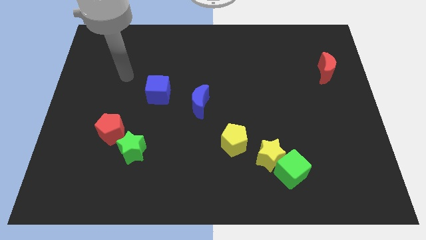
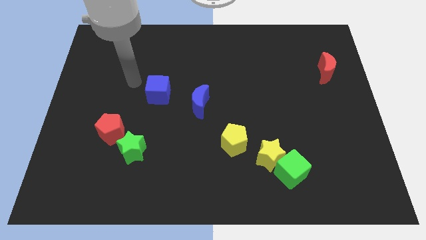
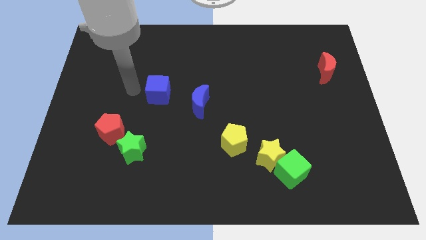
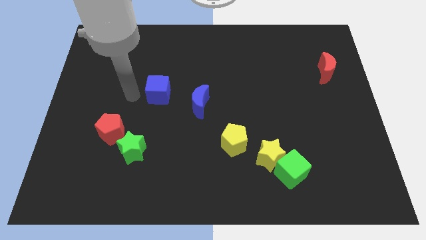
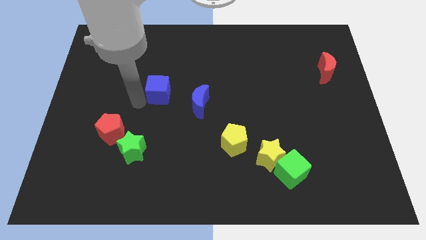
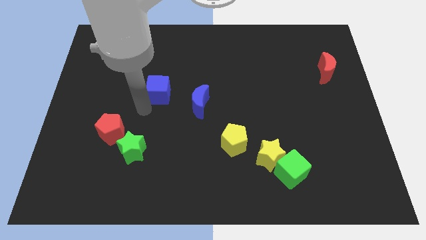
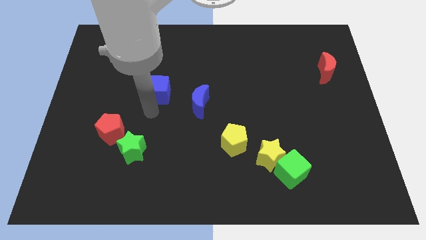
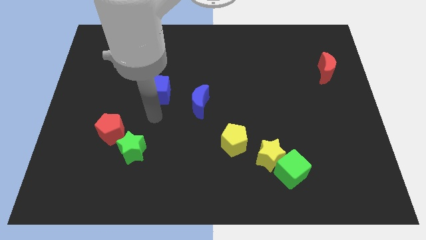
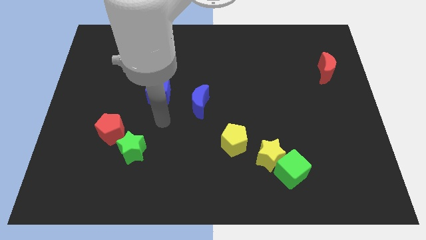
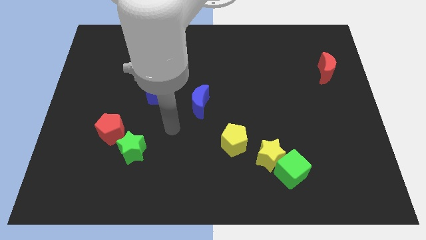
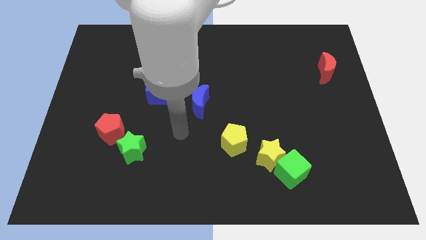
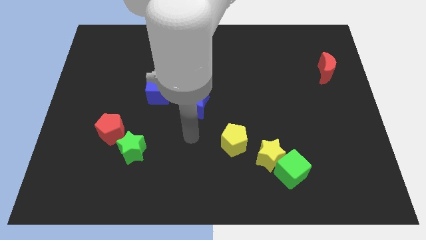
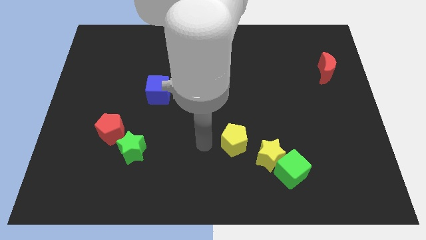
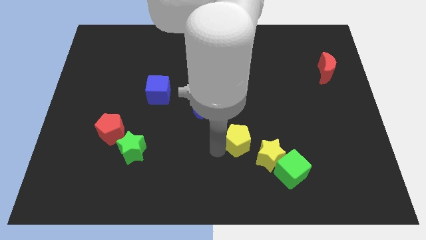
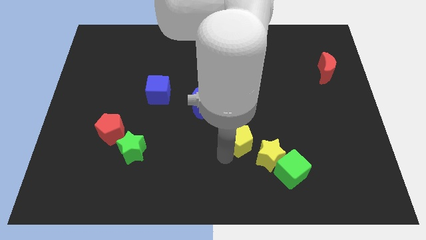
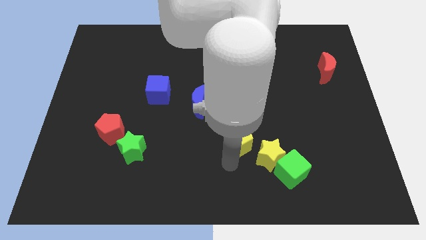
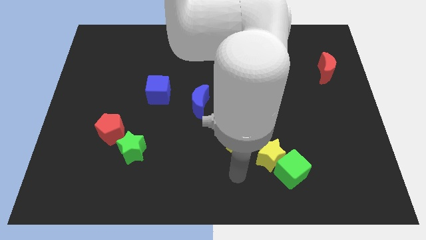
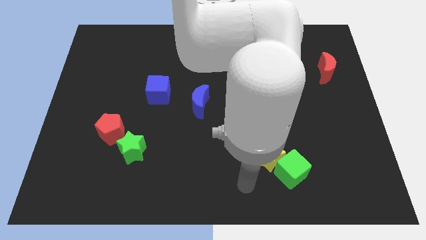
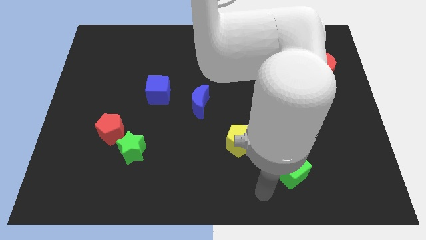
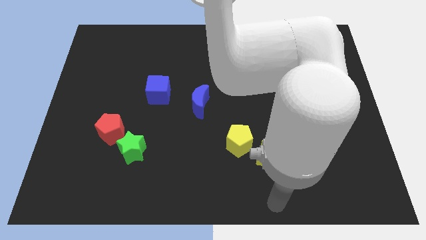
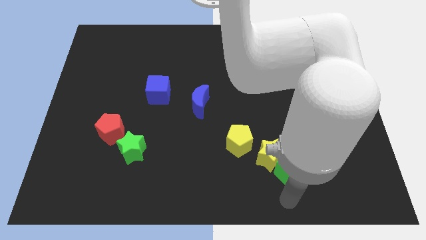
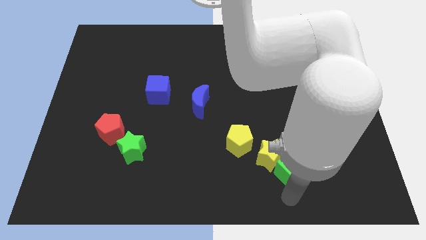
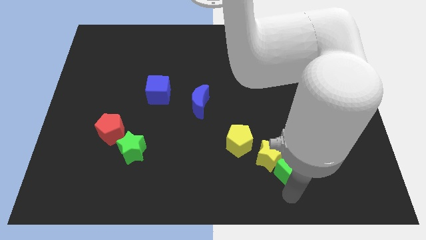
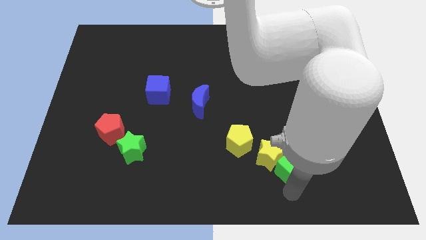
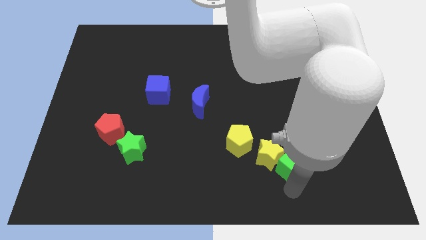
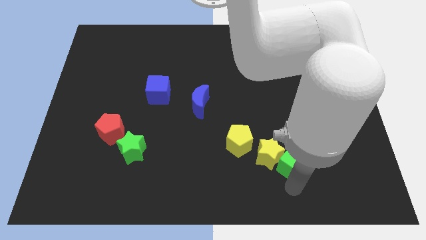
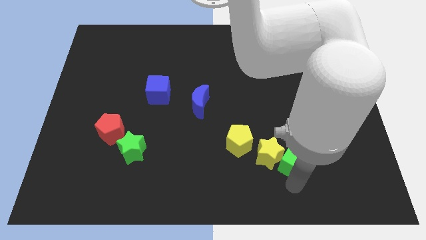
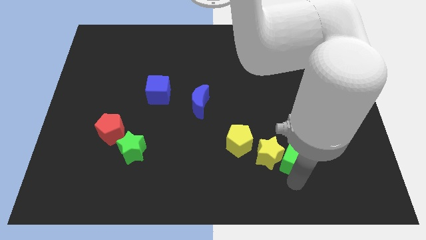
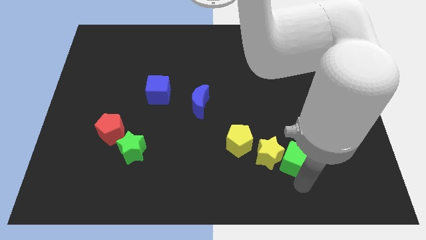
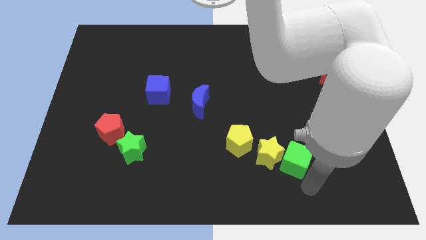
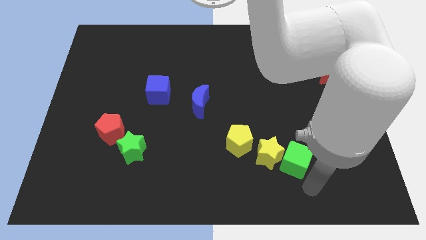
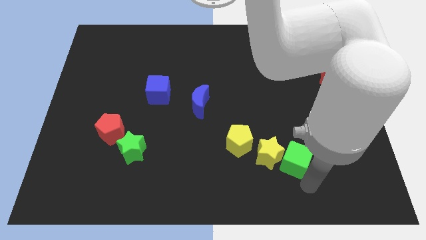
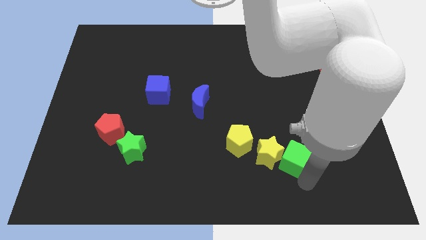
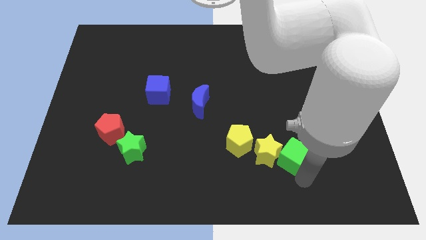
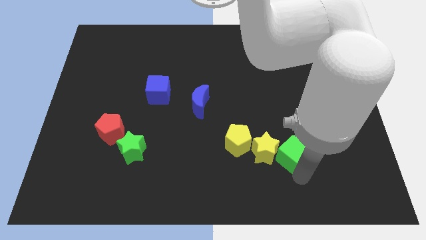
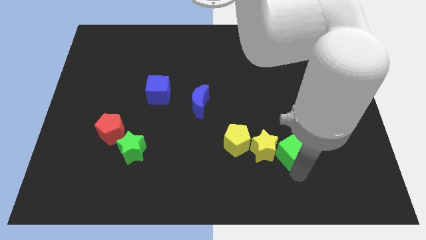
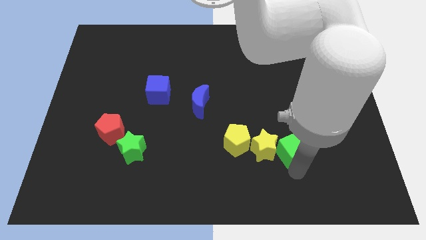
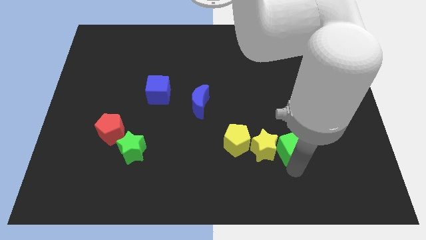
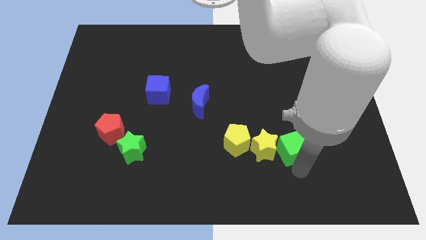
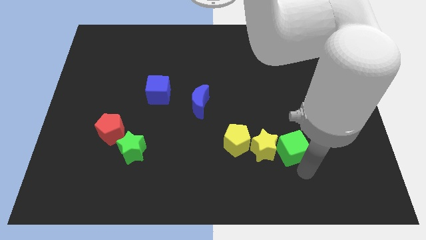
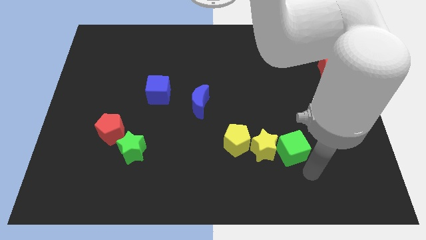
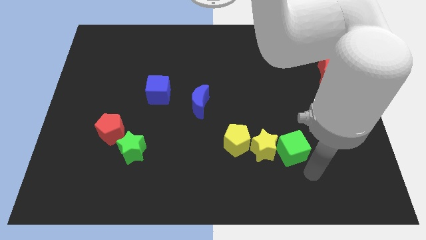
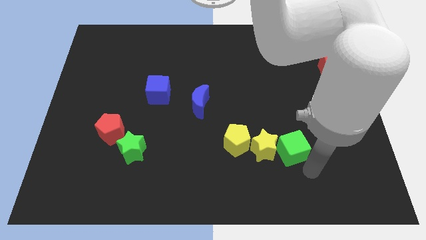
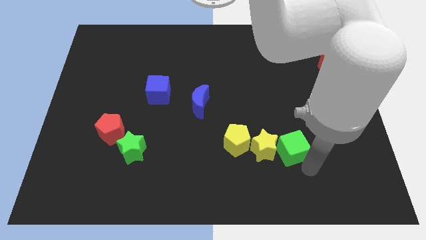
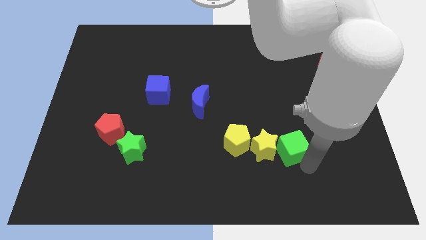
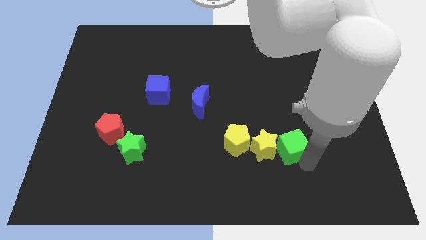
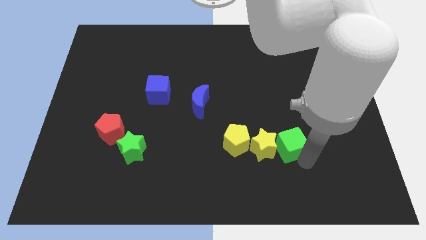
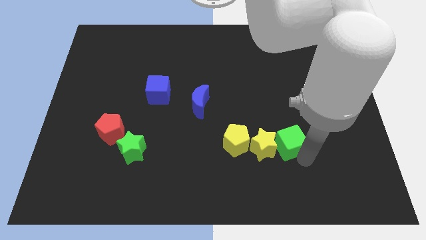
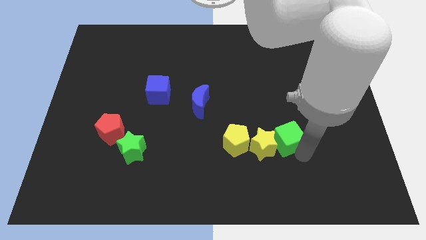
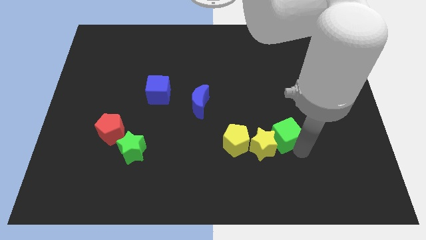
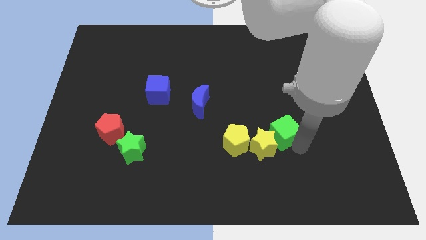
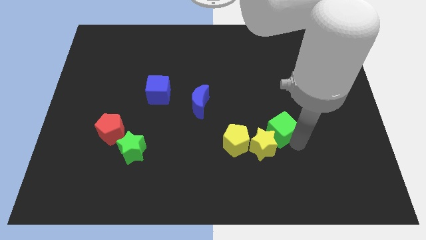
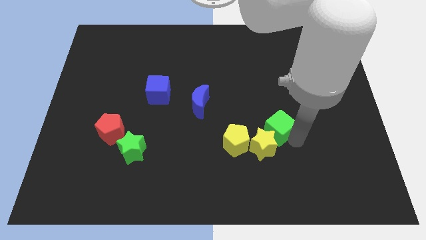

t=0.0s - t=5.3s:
slightly move the green cube up and then left

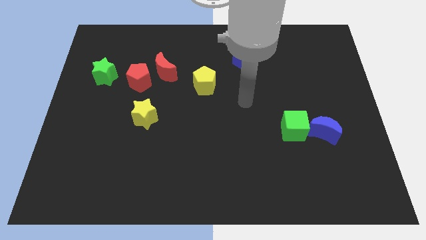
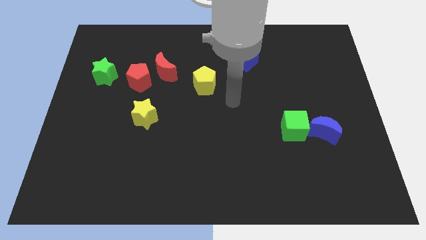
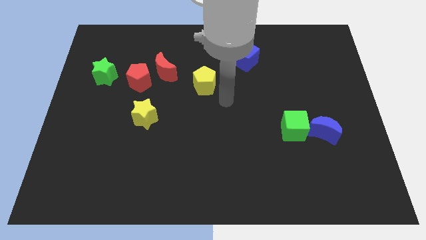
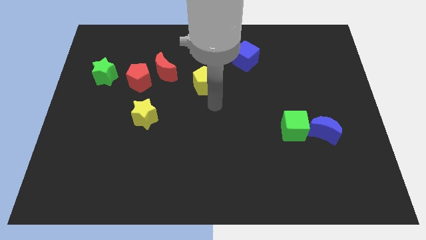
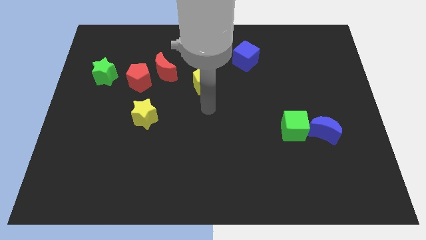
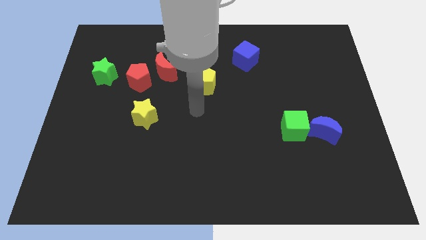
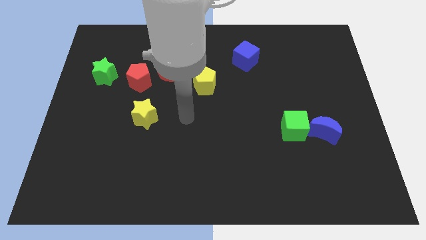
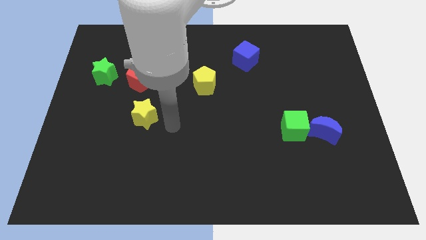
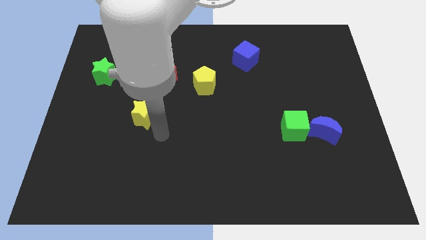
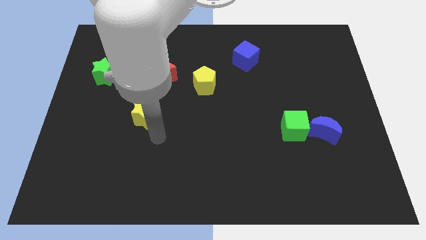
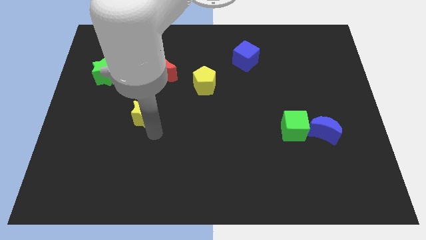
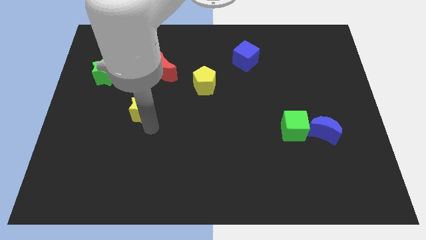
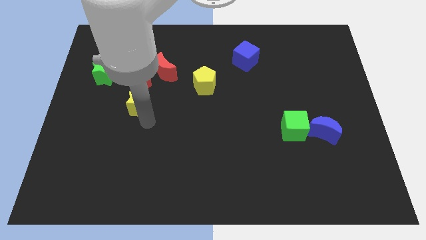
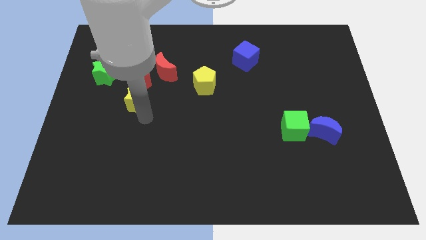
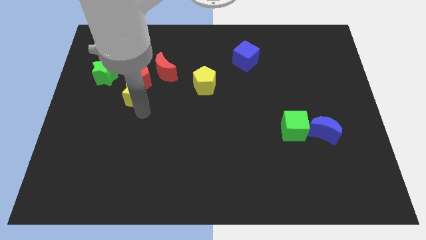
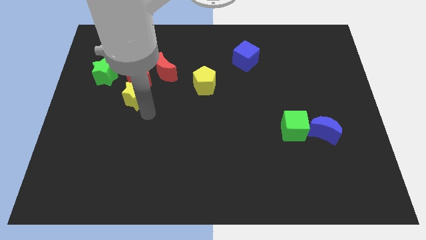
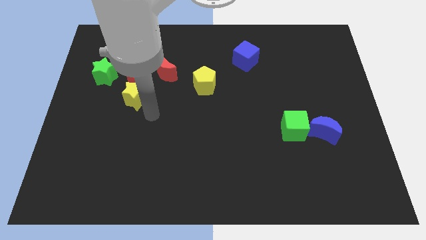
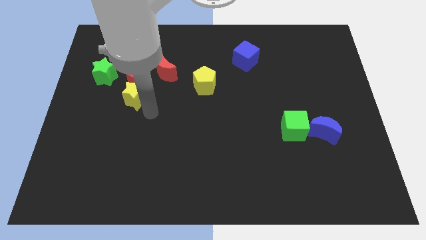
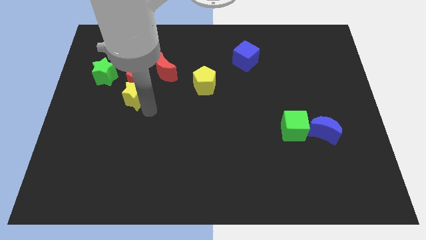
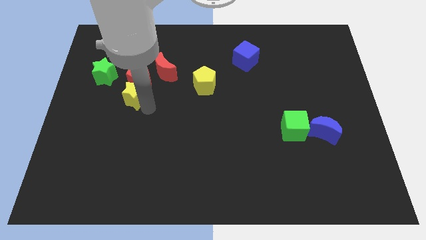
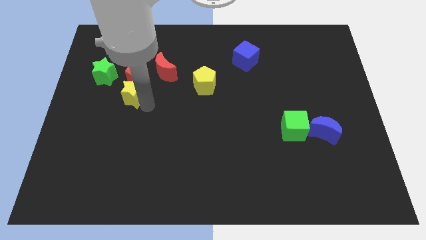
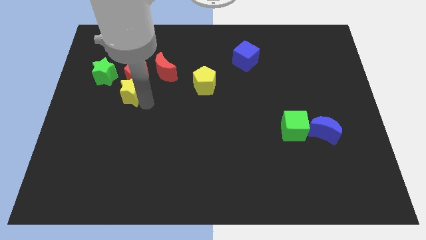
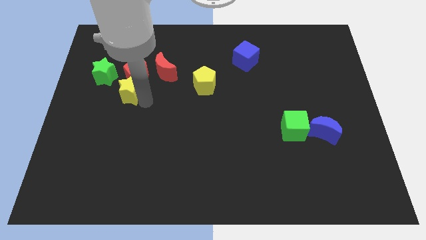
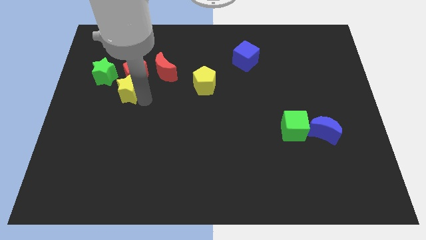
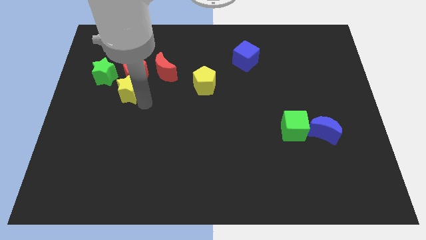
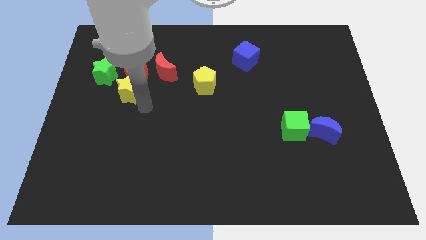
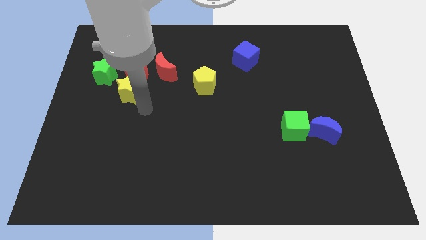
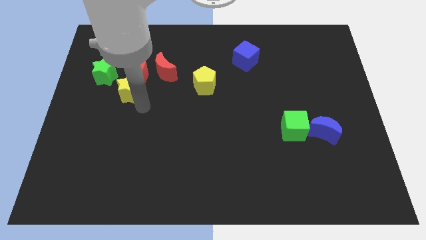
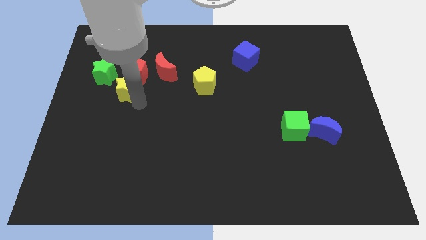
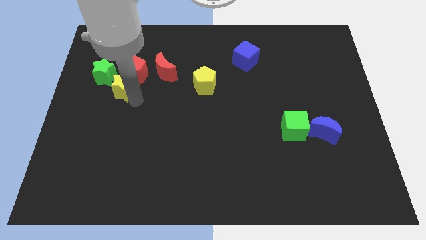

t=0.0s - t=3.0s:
move the yellow star a little up

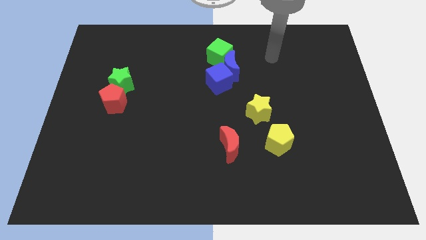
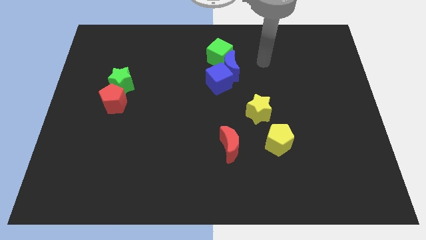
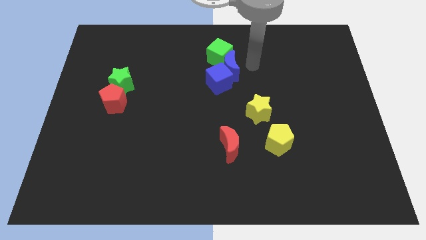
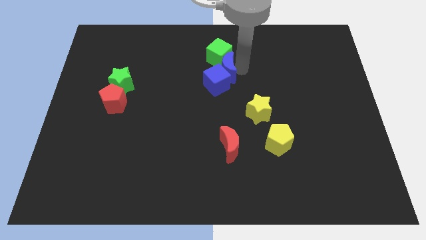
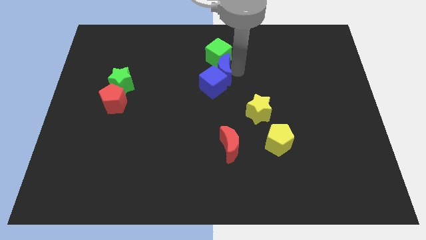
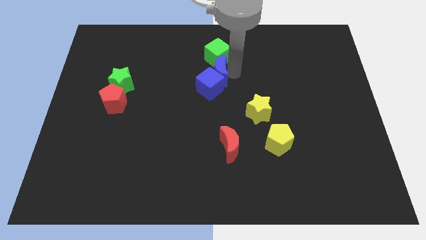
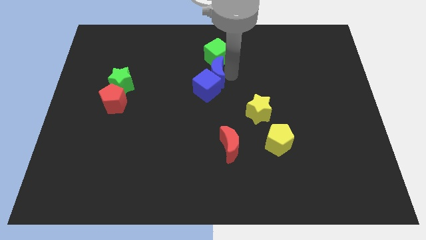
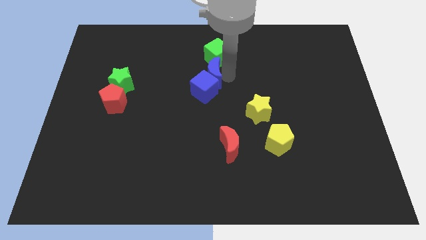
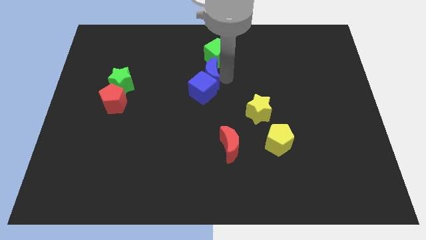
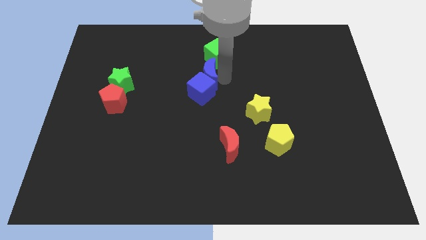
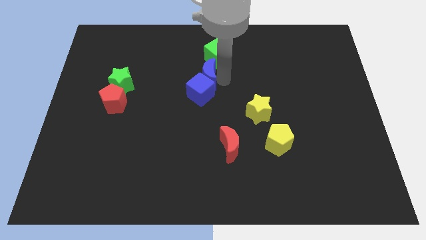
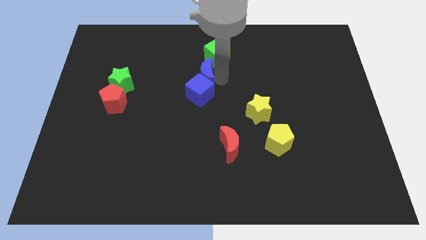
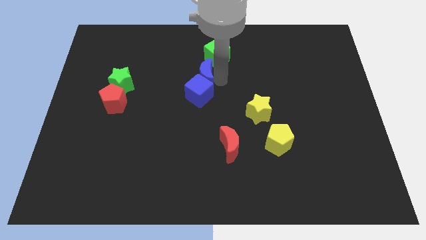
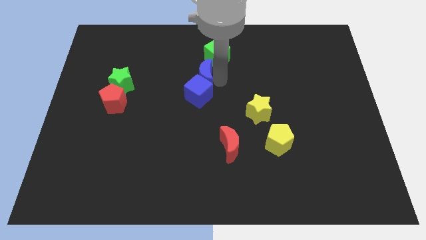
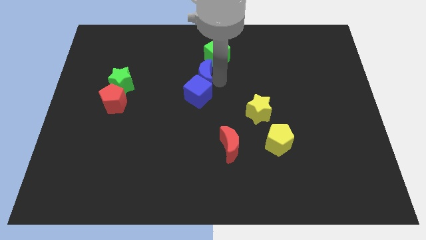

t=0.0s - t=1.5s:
slightly move the blue cube downwards and to the left
